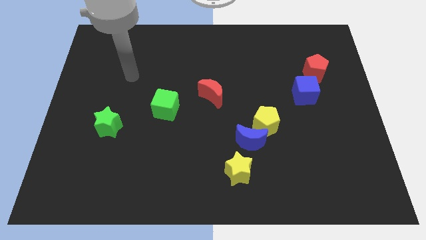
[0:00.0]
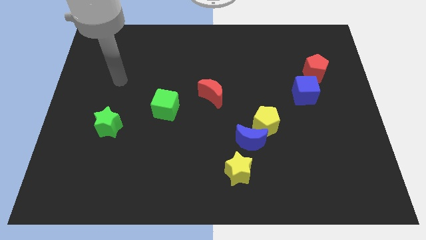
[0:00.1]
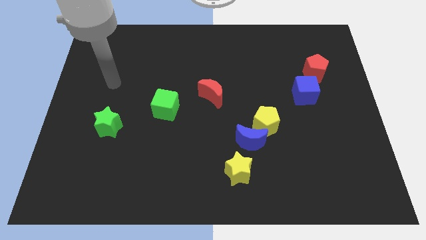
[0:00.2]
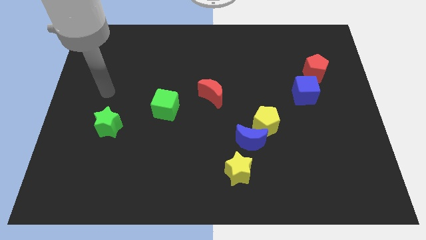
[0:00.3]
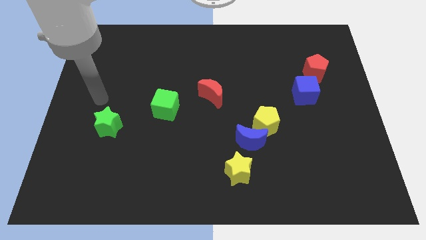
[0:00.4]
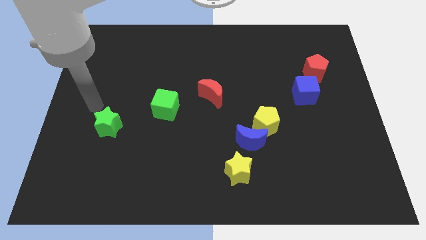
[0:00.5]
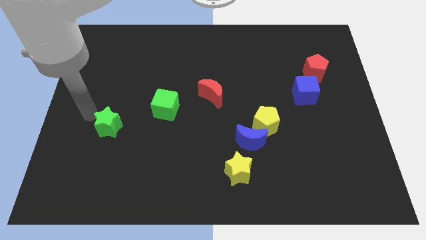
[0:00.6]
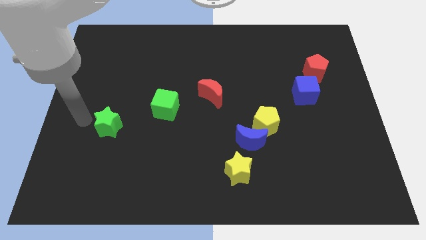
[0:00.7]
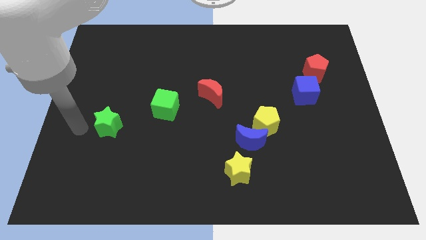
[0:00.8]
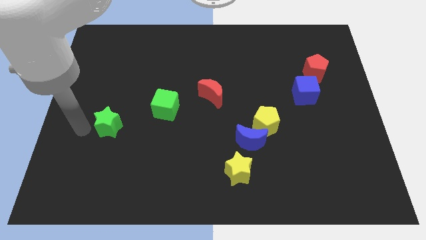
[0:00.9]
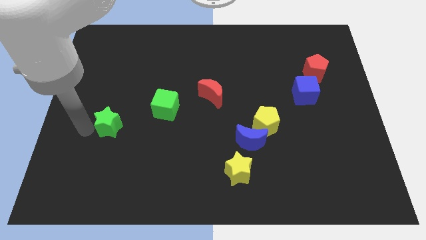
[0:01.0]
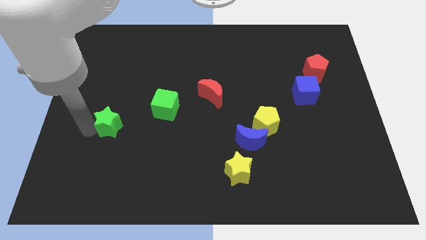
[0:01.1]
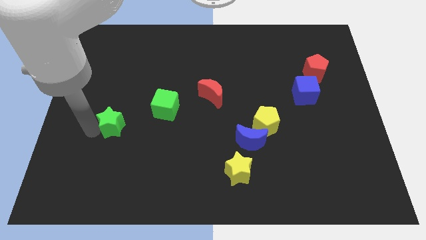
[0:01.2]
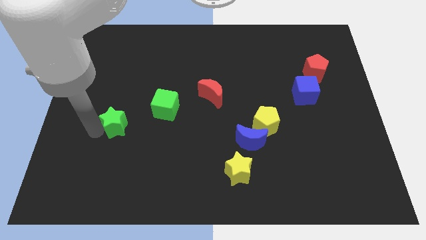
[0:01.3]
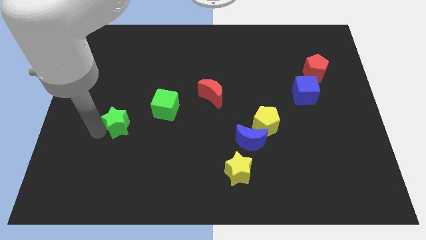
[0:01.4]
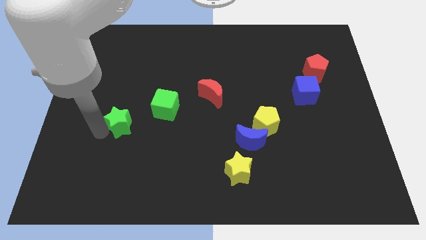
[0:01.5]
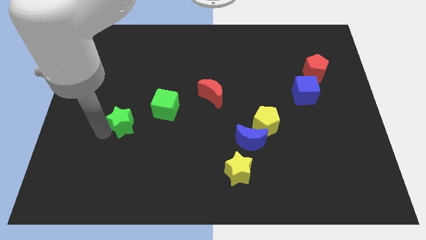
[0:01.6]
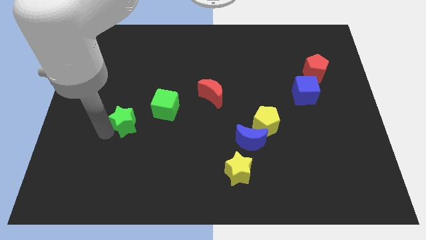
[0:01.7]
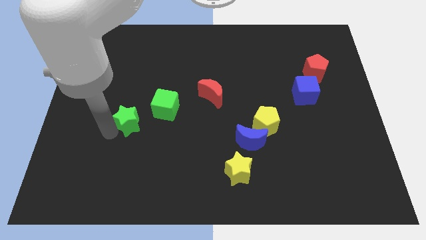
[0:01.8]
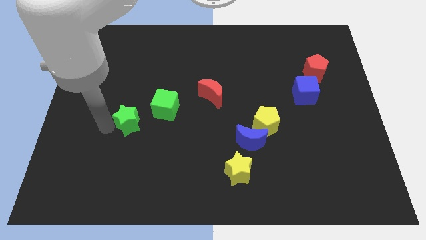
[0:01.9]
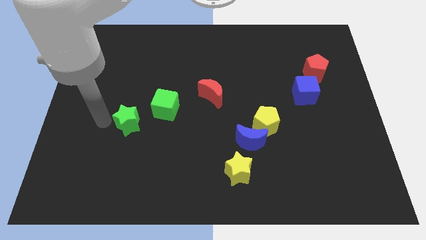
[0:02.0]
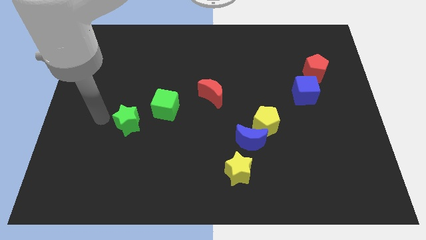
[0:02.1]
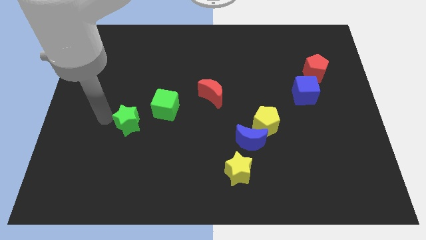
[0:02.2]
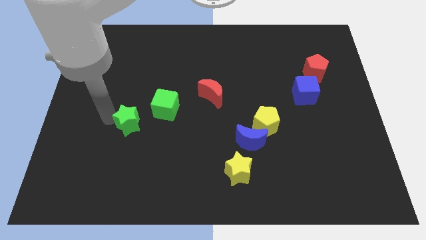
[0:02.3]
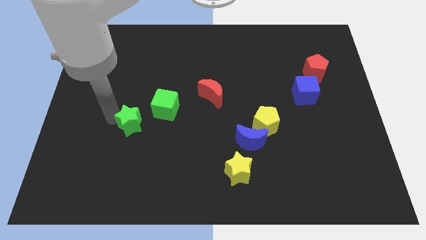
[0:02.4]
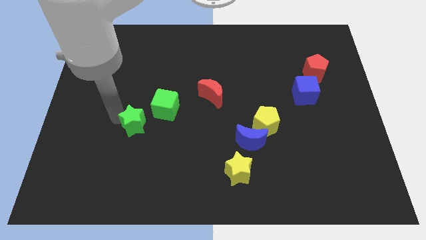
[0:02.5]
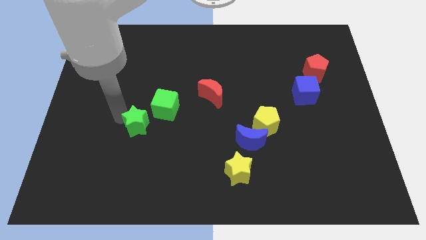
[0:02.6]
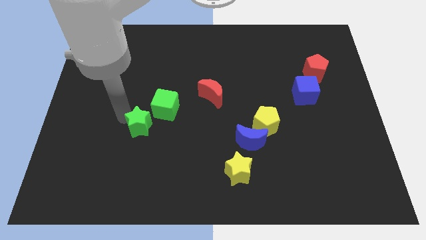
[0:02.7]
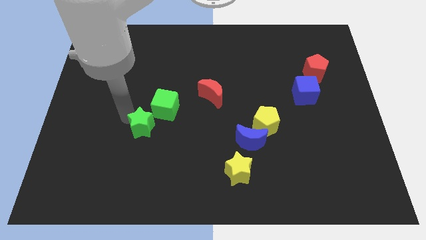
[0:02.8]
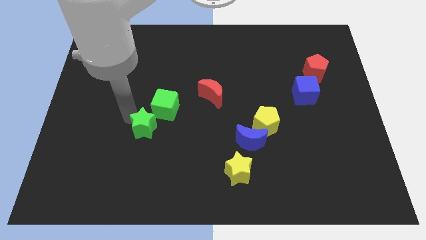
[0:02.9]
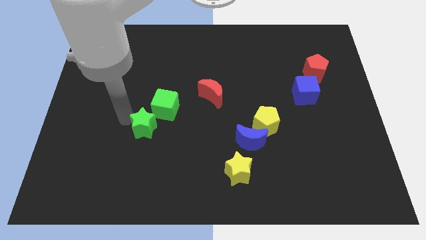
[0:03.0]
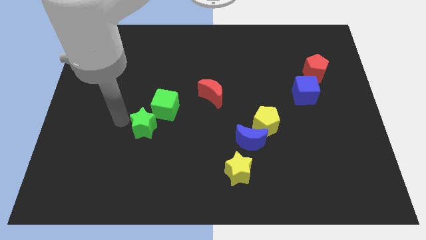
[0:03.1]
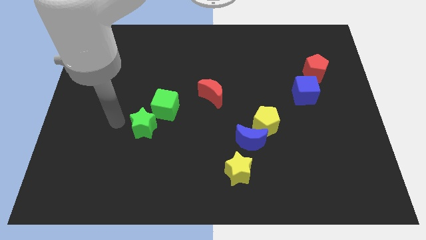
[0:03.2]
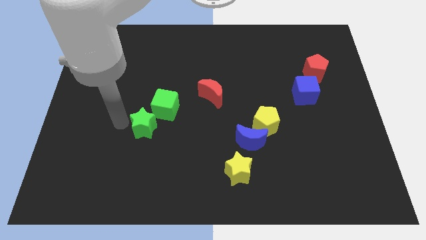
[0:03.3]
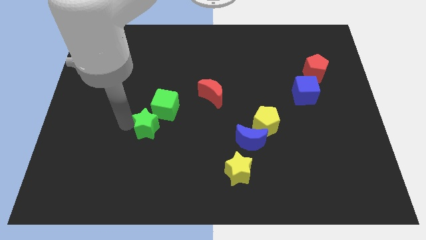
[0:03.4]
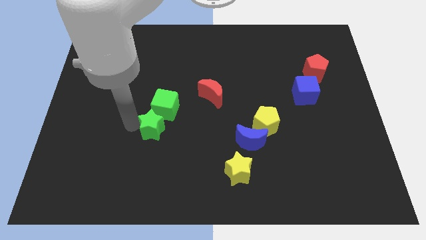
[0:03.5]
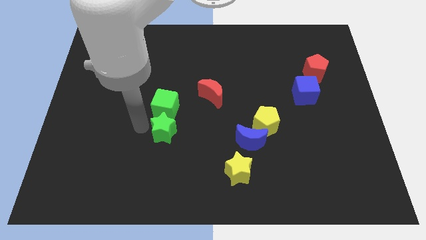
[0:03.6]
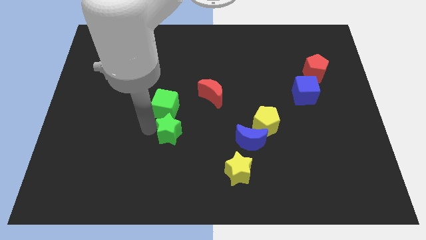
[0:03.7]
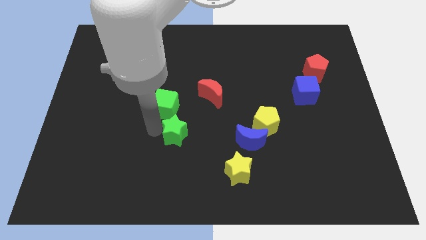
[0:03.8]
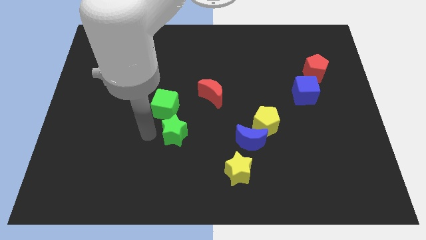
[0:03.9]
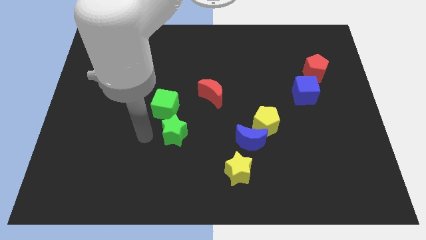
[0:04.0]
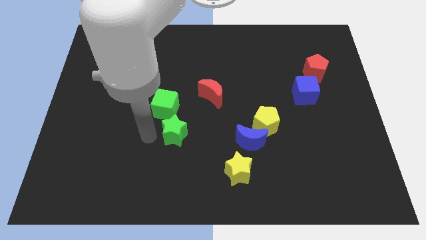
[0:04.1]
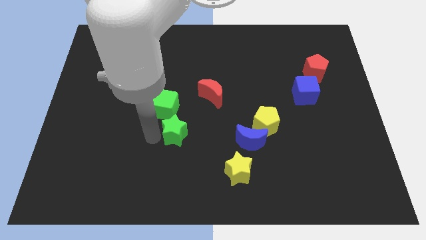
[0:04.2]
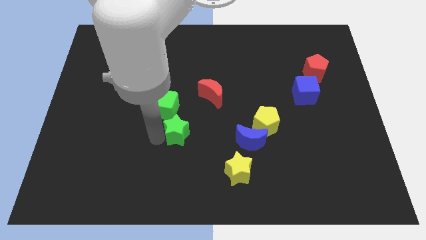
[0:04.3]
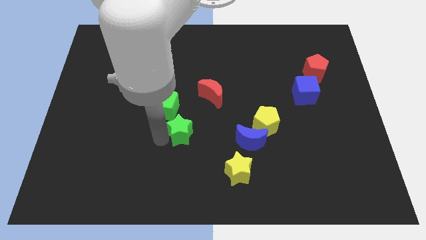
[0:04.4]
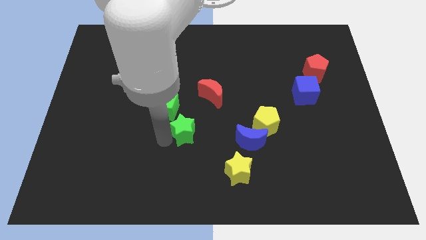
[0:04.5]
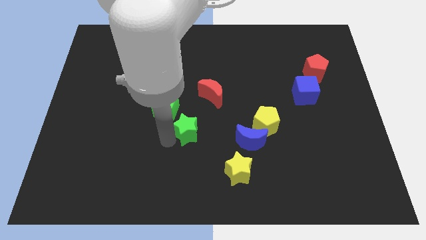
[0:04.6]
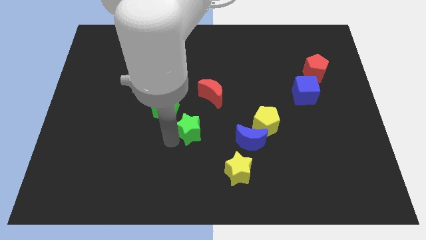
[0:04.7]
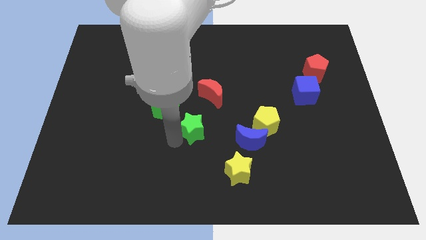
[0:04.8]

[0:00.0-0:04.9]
move the green star to the bottom of the red moon

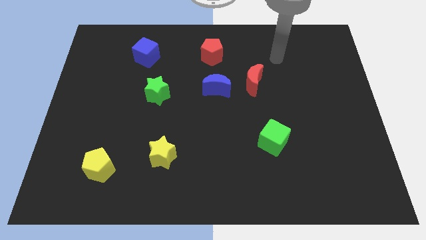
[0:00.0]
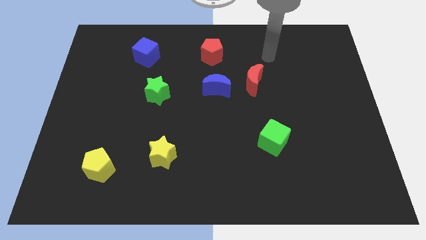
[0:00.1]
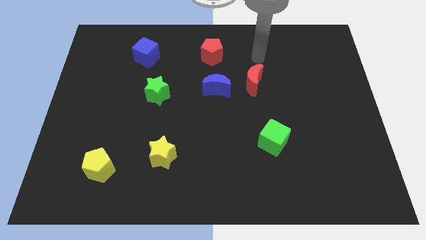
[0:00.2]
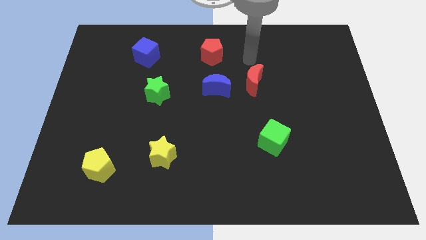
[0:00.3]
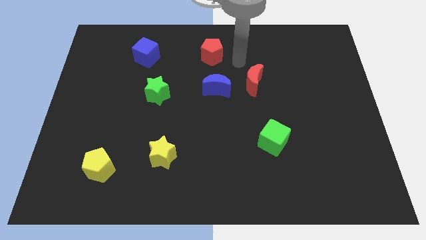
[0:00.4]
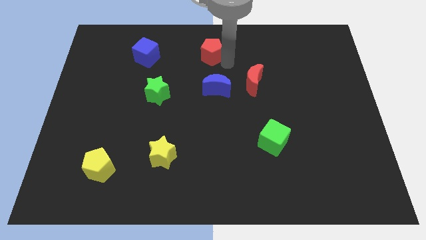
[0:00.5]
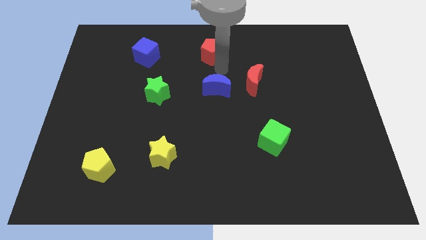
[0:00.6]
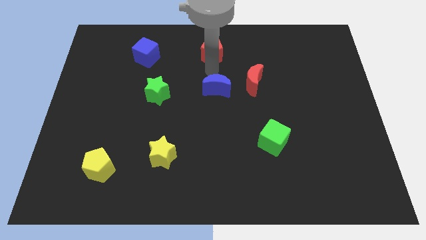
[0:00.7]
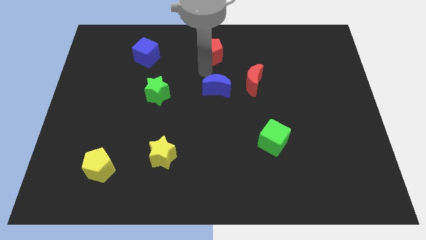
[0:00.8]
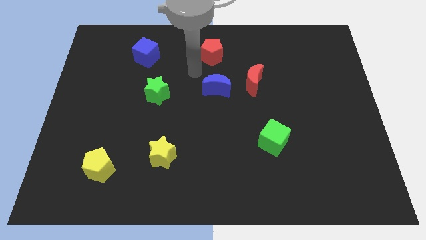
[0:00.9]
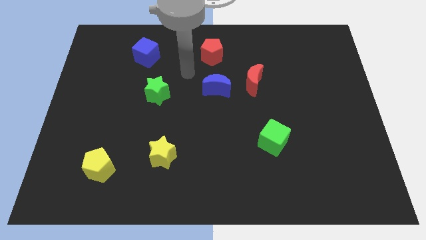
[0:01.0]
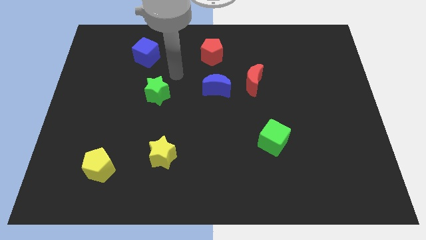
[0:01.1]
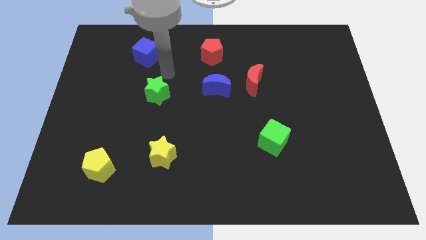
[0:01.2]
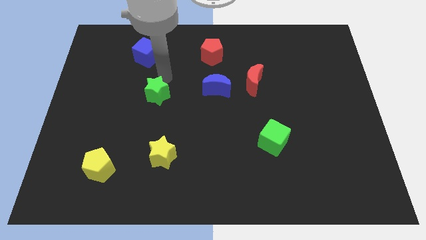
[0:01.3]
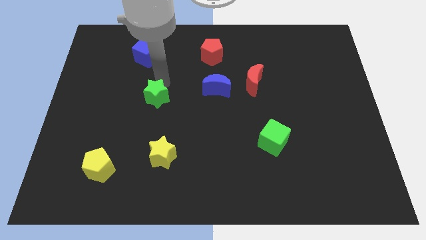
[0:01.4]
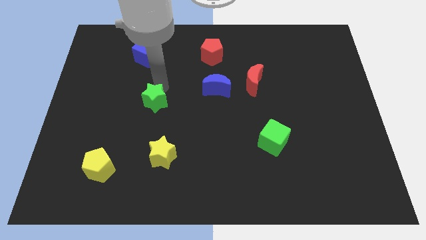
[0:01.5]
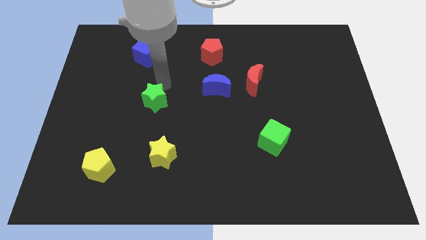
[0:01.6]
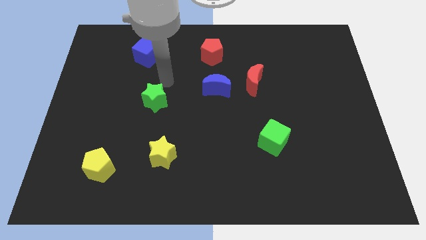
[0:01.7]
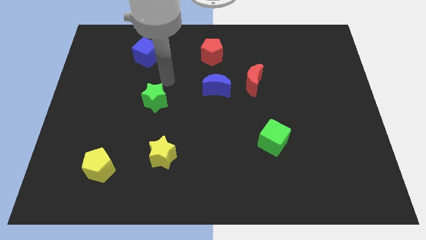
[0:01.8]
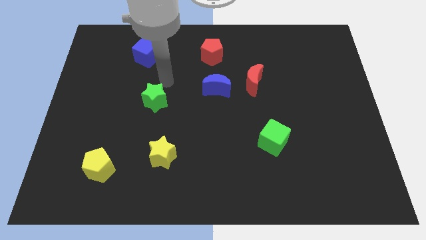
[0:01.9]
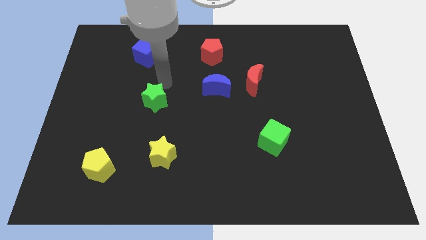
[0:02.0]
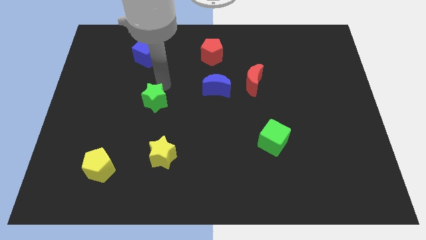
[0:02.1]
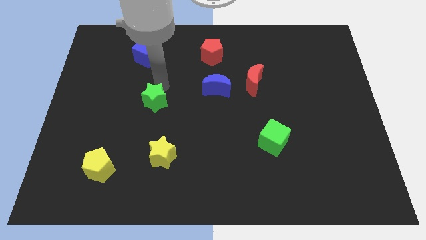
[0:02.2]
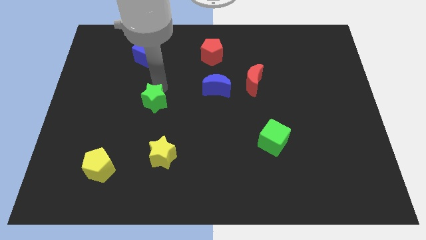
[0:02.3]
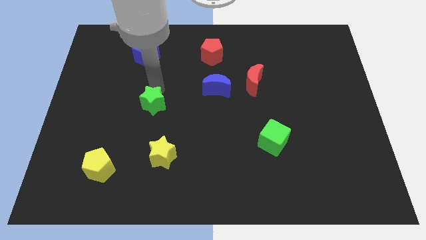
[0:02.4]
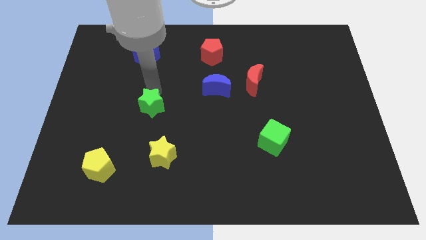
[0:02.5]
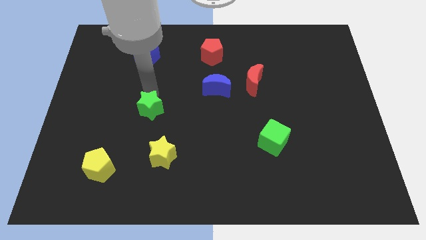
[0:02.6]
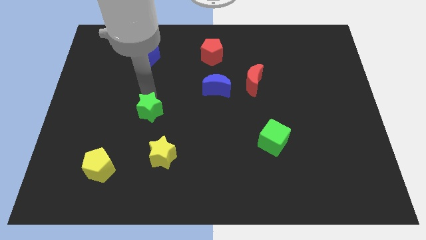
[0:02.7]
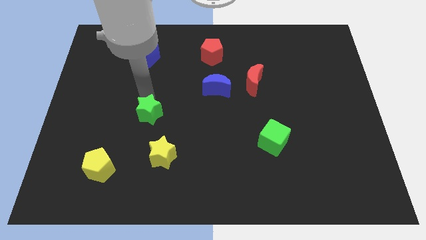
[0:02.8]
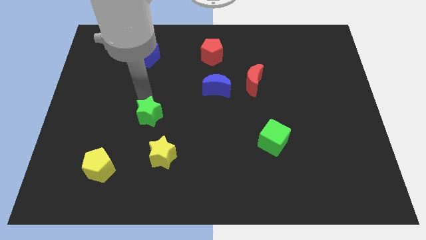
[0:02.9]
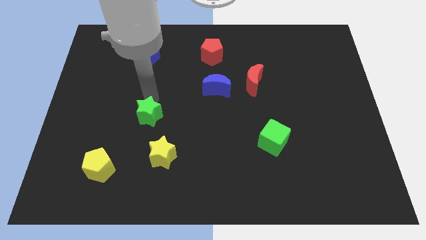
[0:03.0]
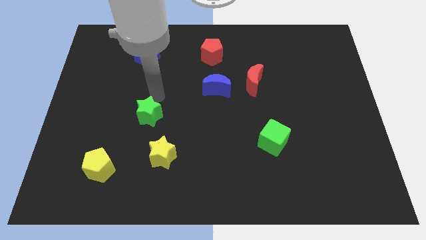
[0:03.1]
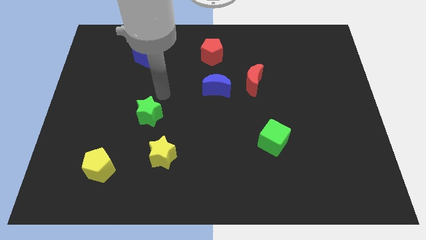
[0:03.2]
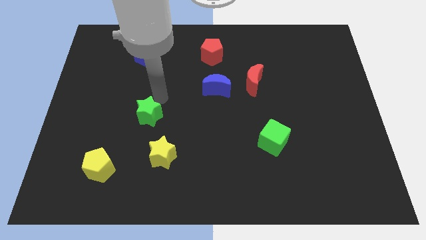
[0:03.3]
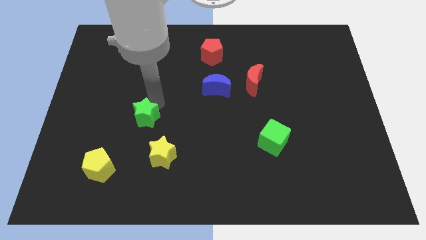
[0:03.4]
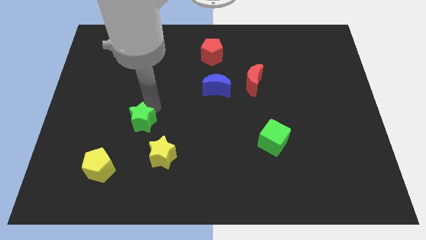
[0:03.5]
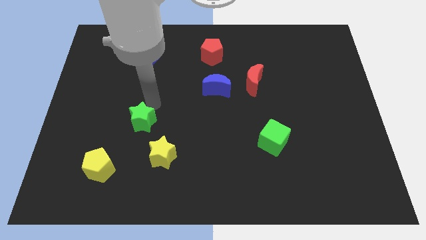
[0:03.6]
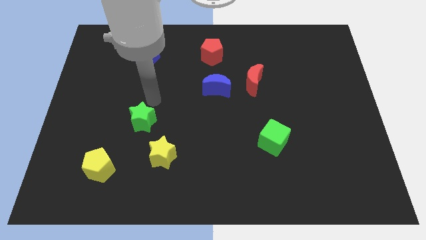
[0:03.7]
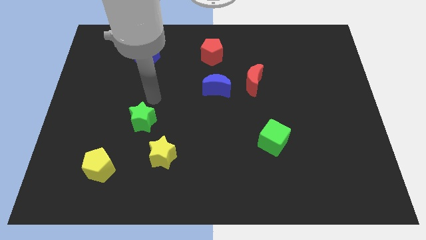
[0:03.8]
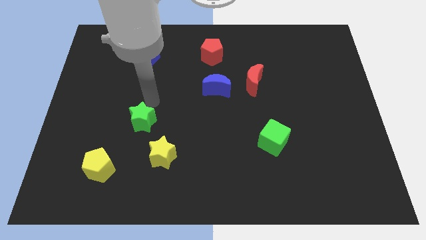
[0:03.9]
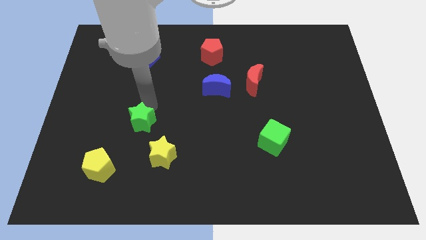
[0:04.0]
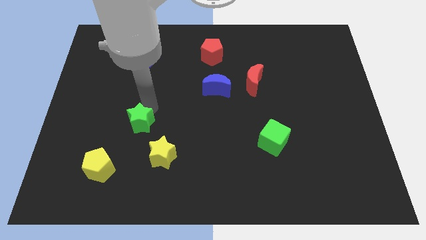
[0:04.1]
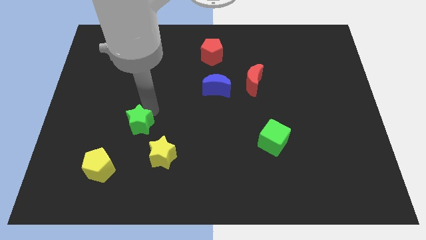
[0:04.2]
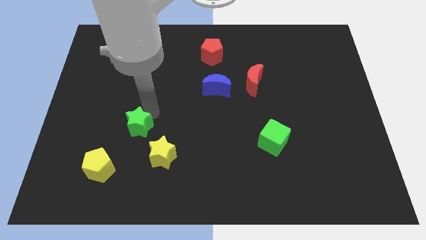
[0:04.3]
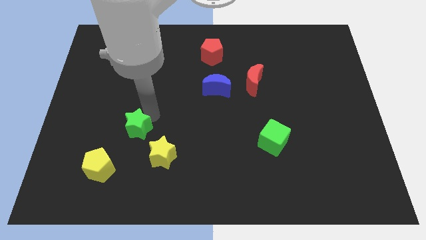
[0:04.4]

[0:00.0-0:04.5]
put the green star to the top right side of the yellow pentagon
